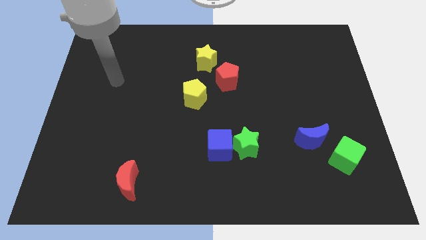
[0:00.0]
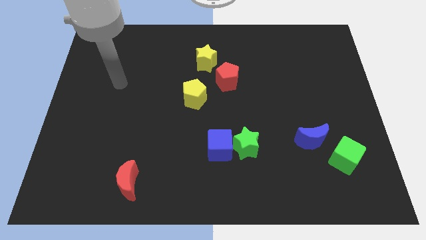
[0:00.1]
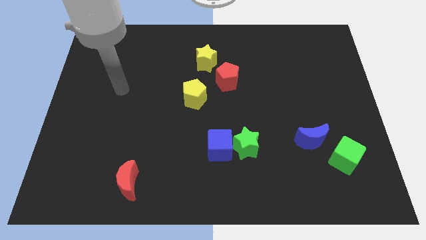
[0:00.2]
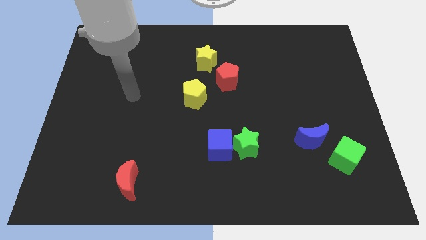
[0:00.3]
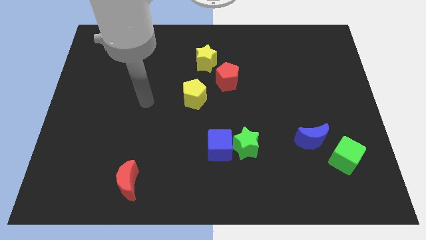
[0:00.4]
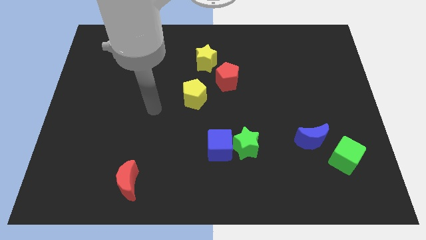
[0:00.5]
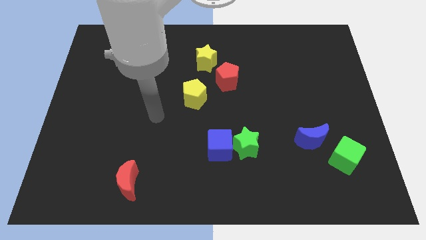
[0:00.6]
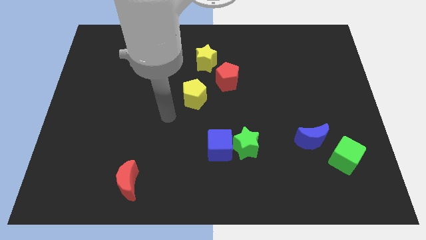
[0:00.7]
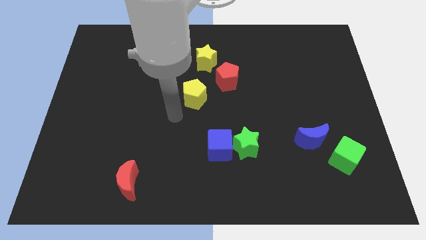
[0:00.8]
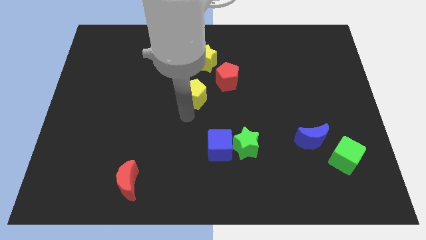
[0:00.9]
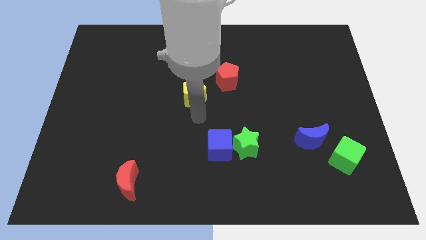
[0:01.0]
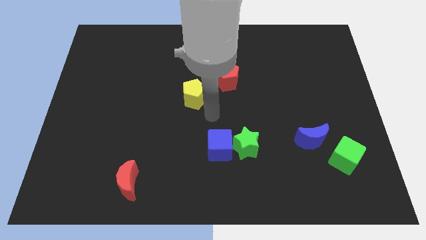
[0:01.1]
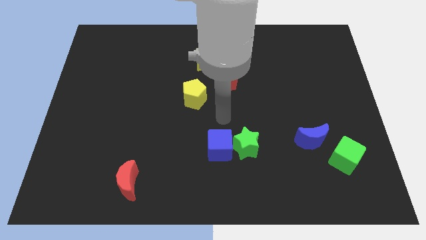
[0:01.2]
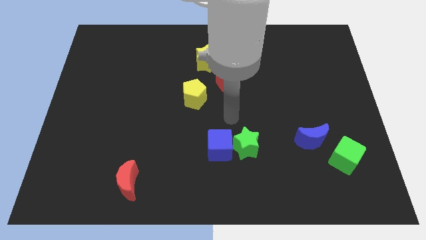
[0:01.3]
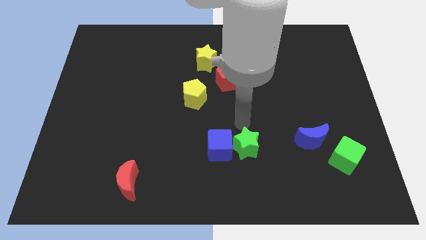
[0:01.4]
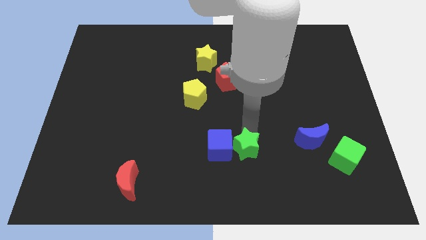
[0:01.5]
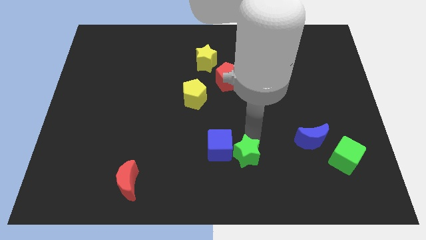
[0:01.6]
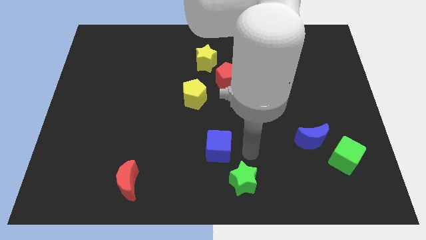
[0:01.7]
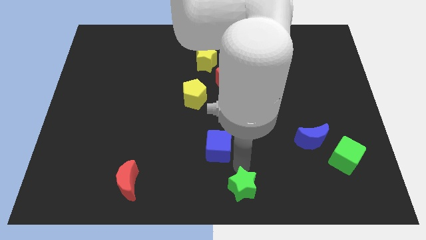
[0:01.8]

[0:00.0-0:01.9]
pull the blue cube apart from the green star

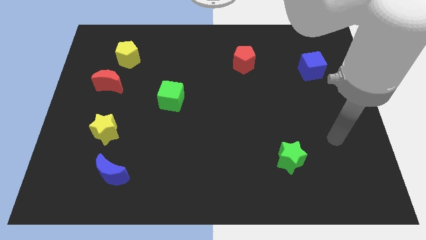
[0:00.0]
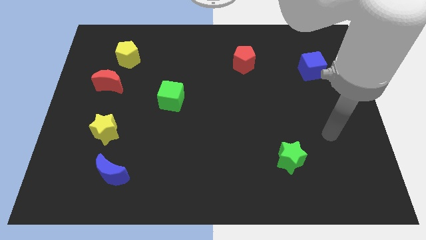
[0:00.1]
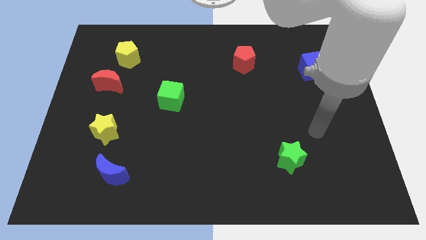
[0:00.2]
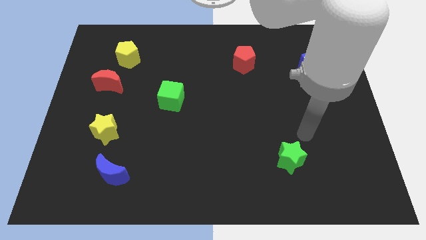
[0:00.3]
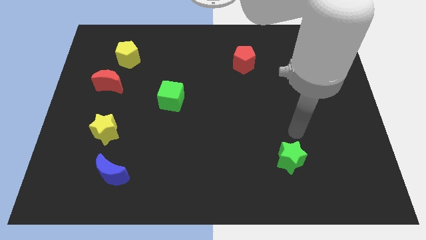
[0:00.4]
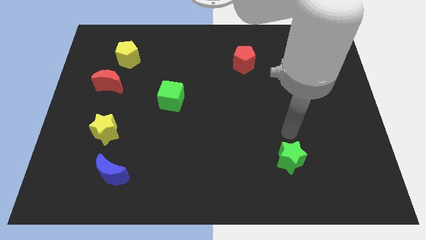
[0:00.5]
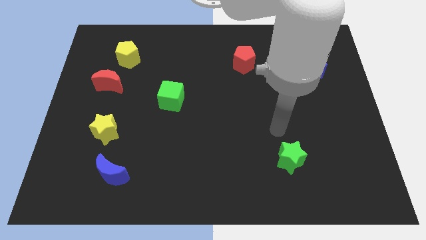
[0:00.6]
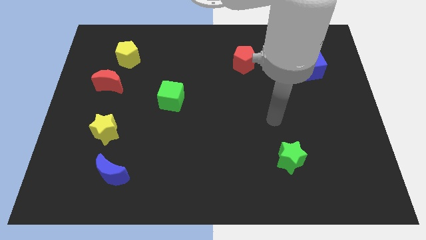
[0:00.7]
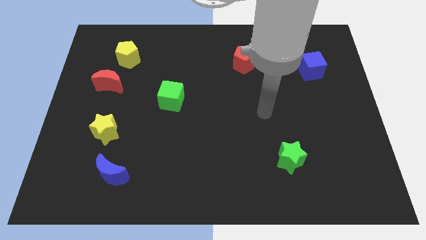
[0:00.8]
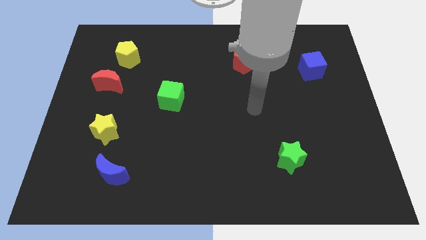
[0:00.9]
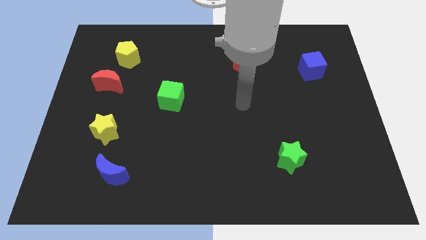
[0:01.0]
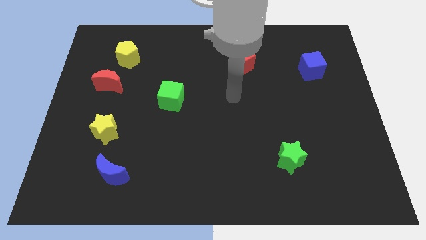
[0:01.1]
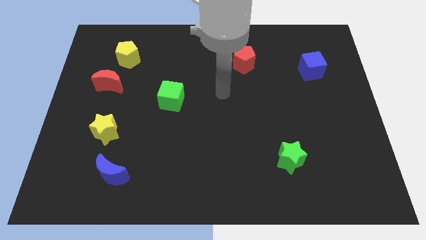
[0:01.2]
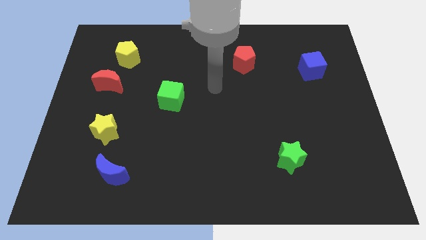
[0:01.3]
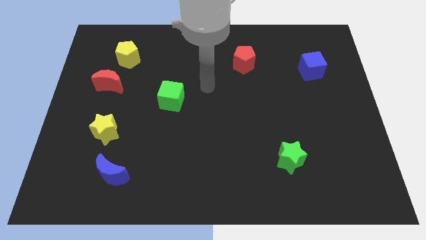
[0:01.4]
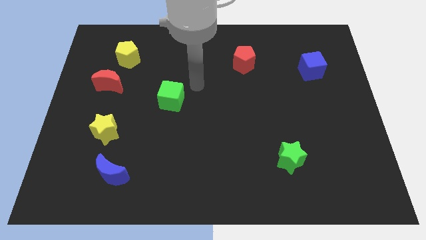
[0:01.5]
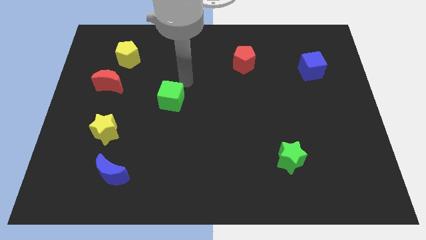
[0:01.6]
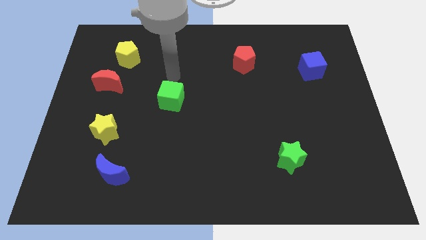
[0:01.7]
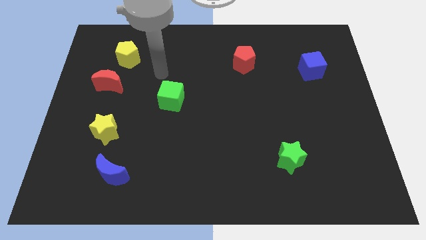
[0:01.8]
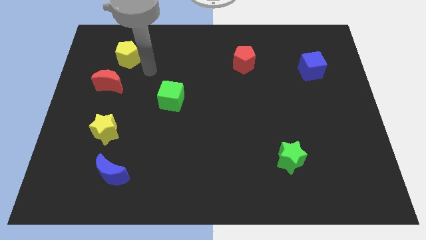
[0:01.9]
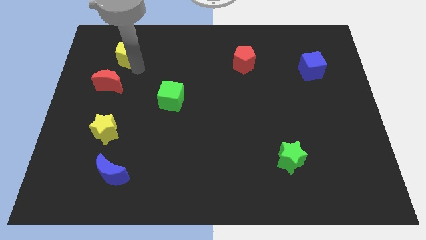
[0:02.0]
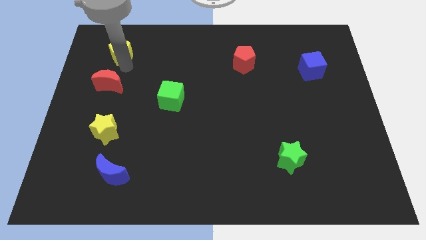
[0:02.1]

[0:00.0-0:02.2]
separate the red moon from the yellow pentagon

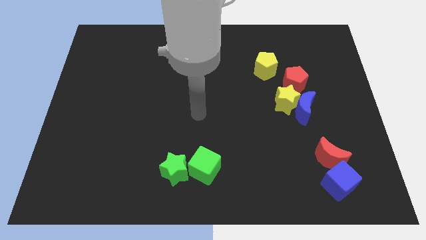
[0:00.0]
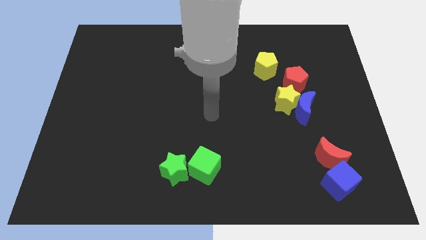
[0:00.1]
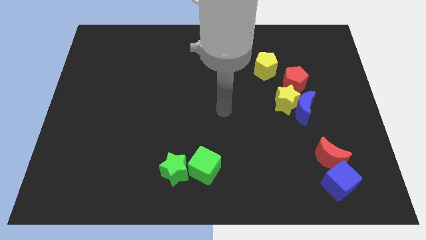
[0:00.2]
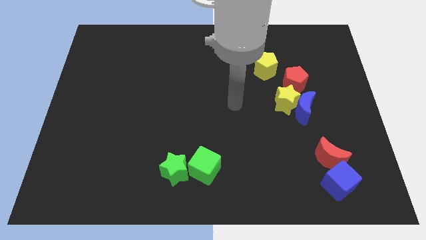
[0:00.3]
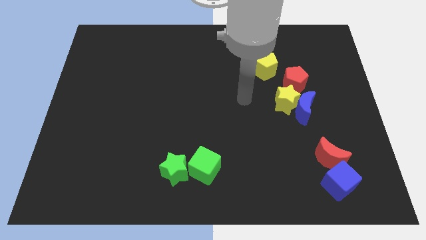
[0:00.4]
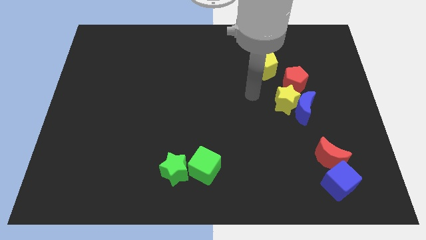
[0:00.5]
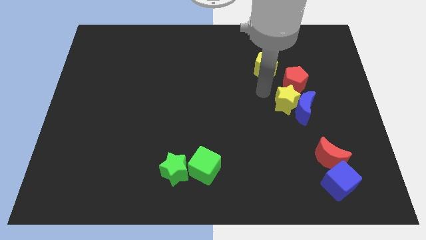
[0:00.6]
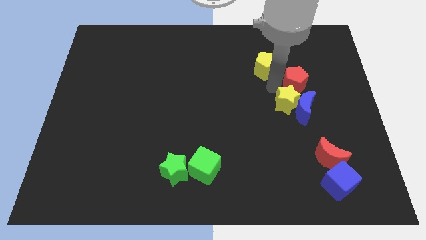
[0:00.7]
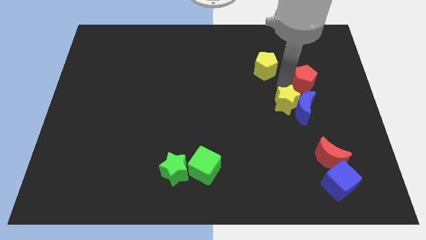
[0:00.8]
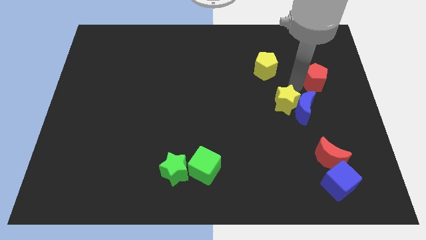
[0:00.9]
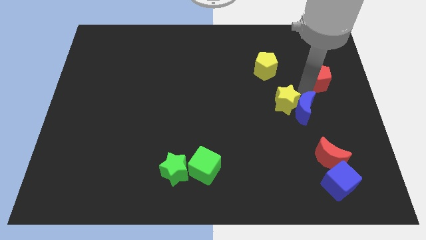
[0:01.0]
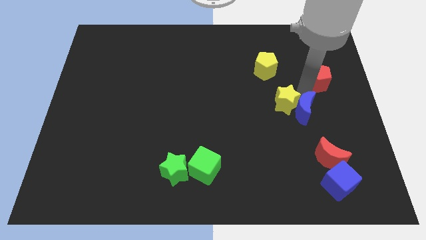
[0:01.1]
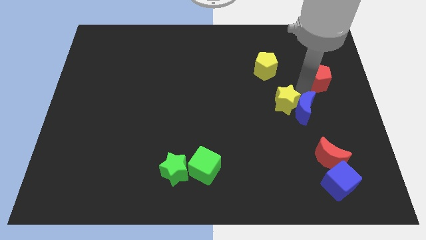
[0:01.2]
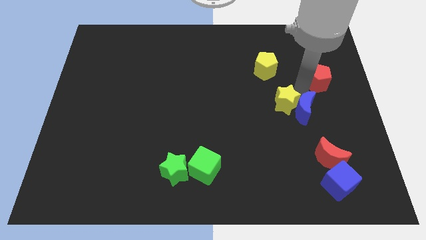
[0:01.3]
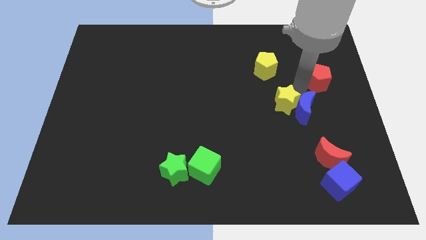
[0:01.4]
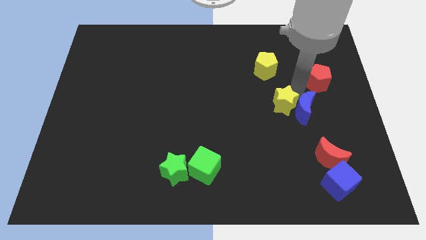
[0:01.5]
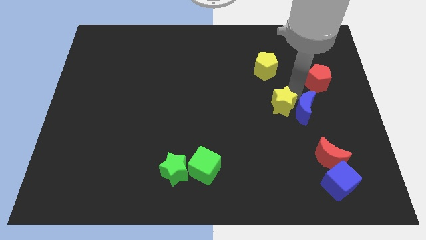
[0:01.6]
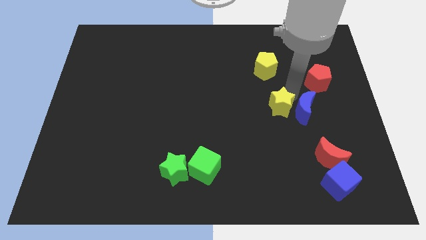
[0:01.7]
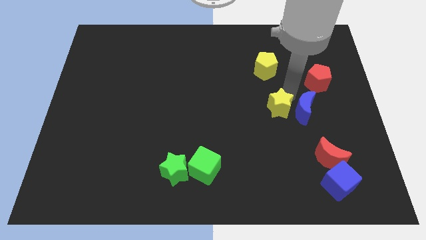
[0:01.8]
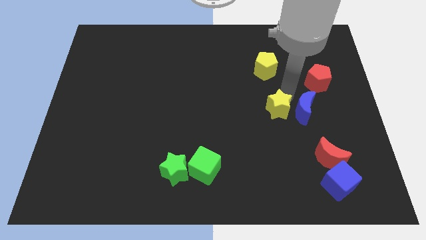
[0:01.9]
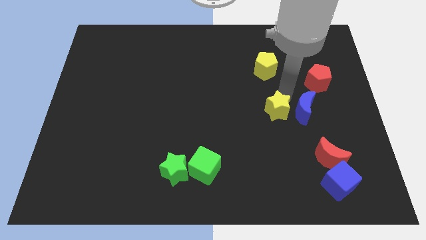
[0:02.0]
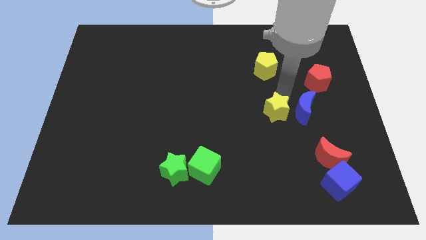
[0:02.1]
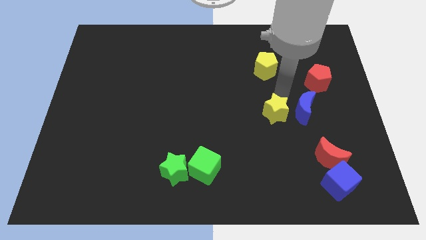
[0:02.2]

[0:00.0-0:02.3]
pull the yellow star apart from the blue moon and red pentagon

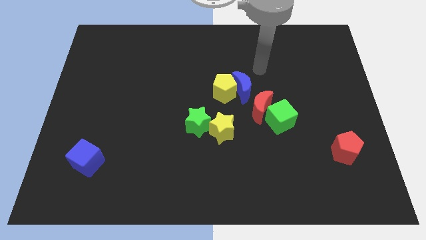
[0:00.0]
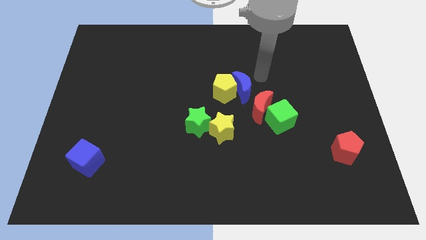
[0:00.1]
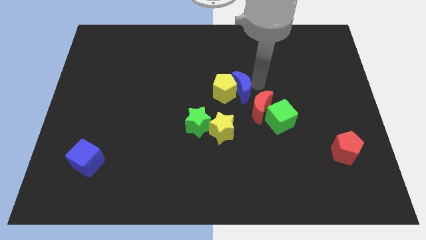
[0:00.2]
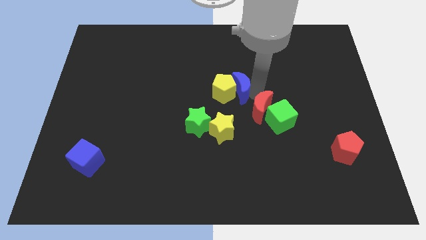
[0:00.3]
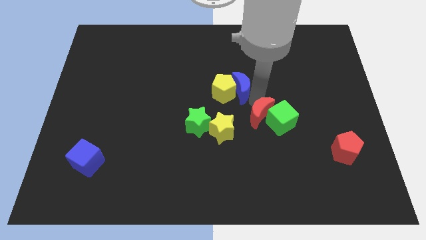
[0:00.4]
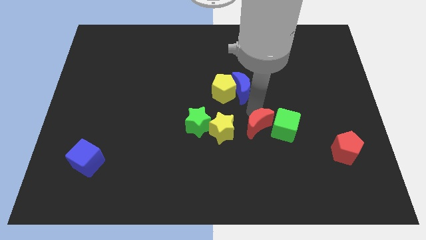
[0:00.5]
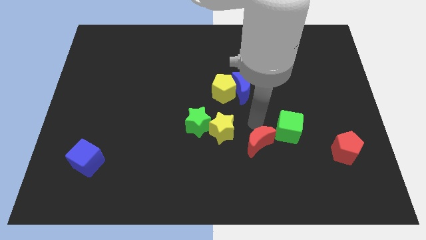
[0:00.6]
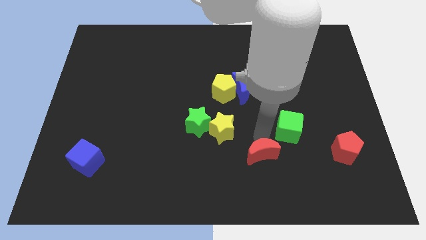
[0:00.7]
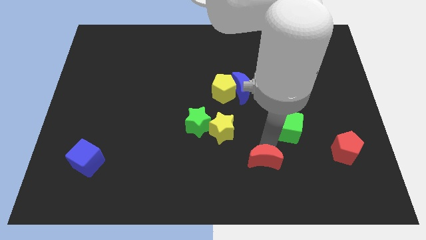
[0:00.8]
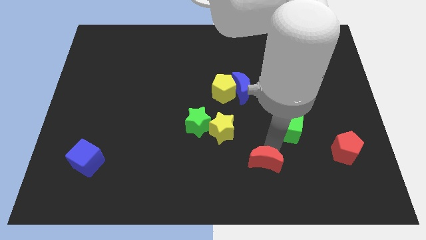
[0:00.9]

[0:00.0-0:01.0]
separate the green cube from the red moon

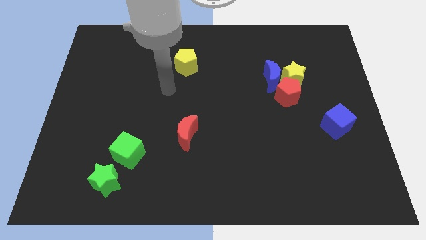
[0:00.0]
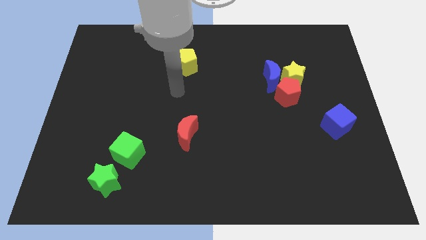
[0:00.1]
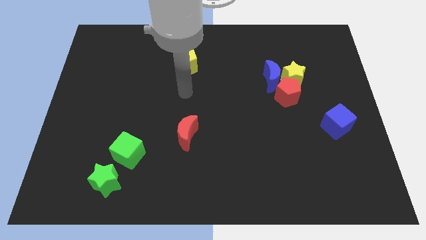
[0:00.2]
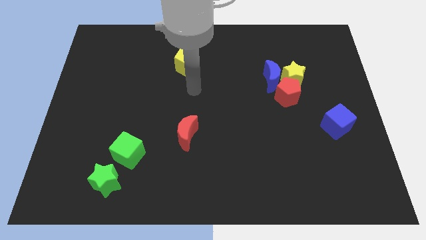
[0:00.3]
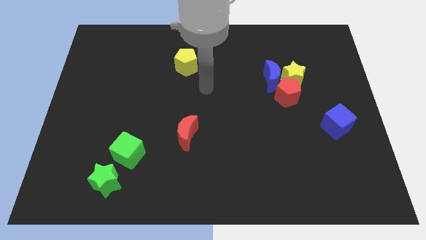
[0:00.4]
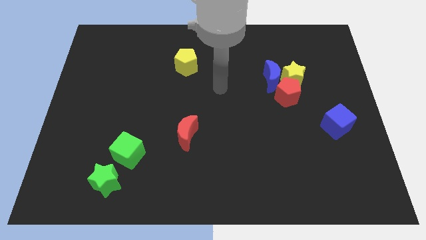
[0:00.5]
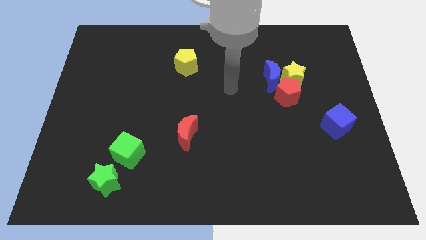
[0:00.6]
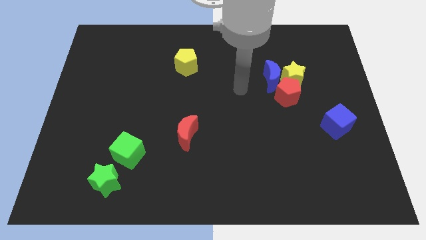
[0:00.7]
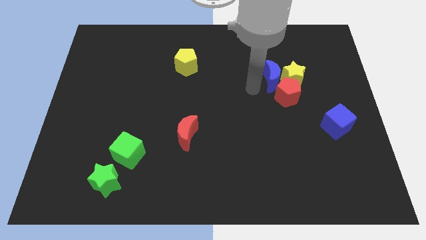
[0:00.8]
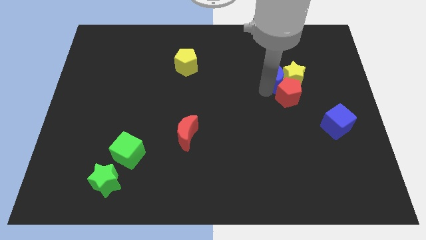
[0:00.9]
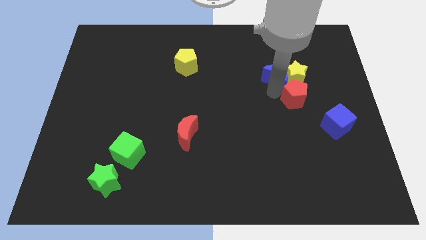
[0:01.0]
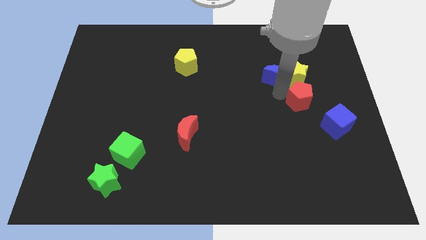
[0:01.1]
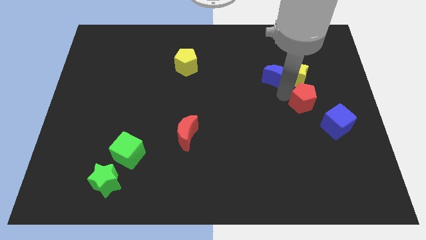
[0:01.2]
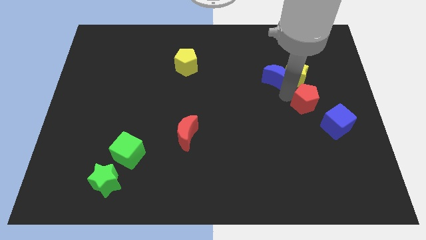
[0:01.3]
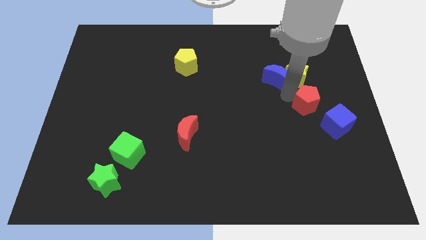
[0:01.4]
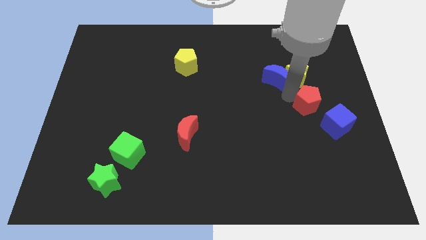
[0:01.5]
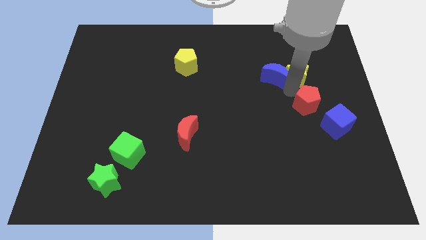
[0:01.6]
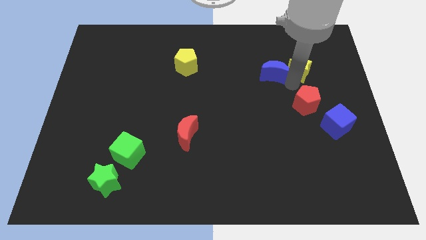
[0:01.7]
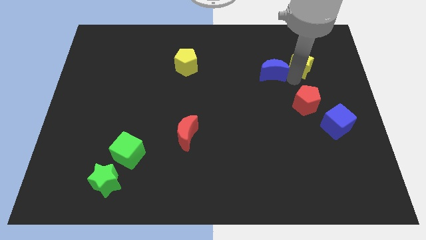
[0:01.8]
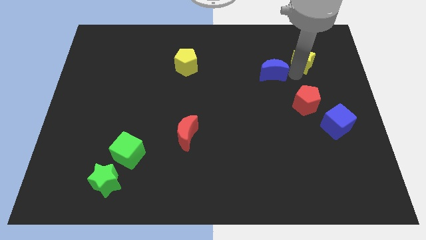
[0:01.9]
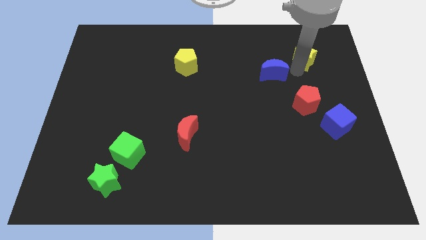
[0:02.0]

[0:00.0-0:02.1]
move the yellow star away from the blue moon and red pentagon
